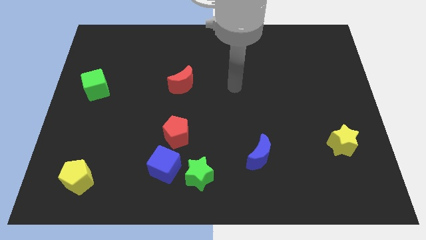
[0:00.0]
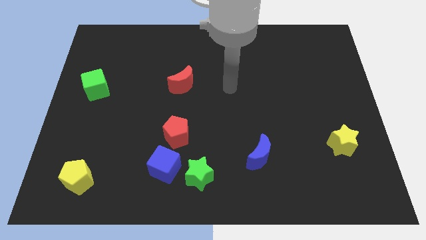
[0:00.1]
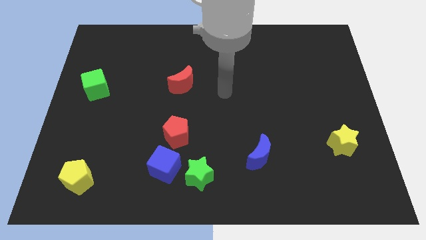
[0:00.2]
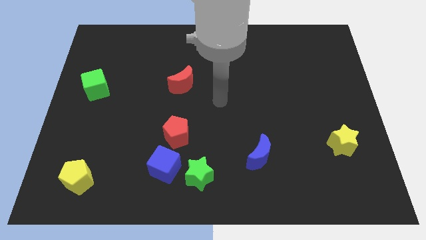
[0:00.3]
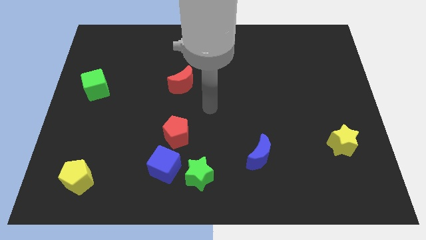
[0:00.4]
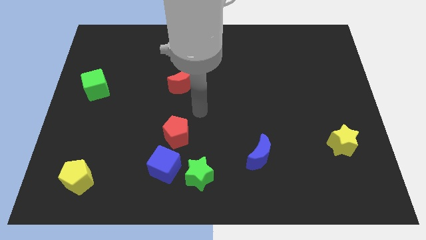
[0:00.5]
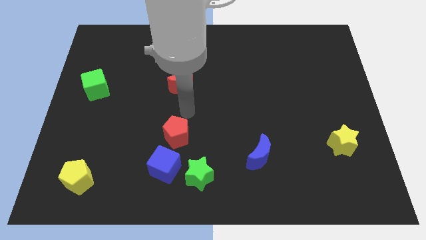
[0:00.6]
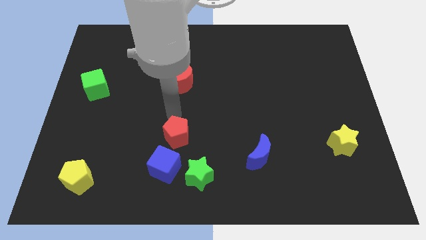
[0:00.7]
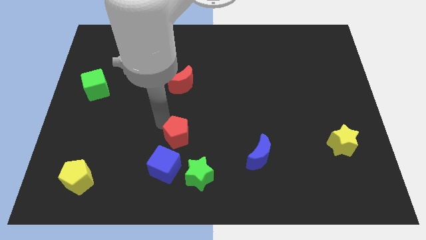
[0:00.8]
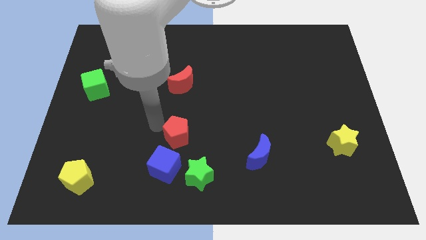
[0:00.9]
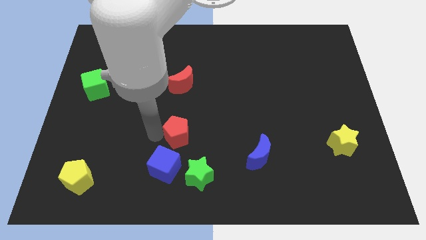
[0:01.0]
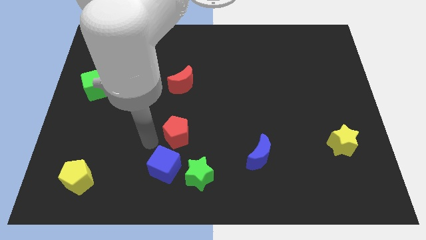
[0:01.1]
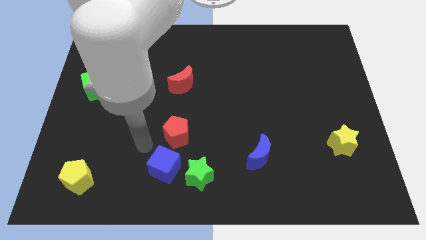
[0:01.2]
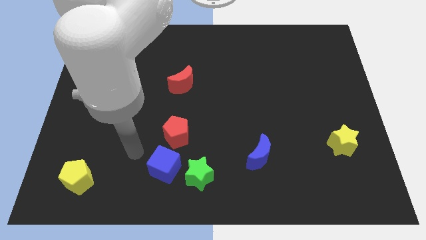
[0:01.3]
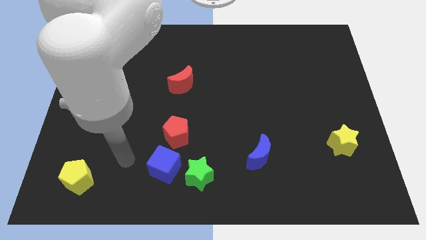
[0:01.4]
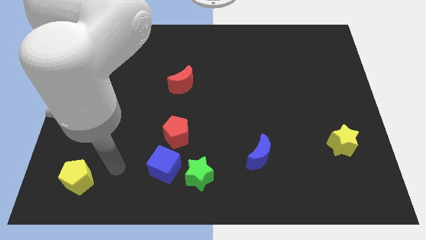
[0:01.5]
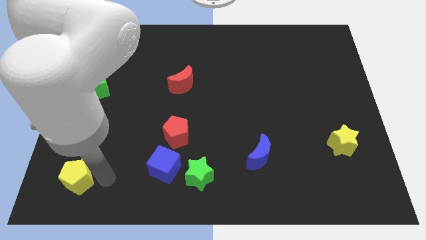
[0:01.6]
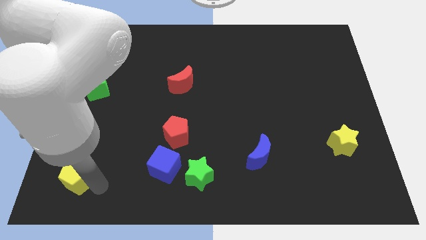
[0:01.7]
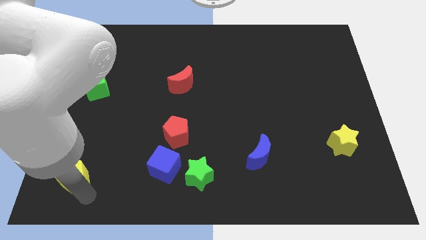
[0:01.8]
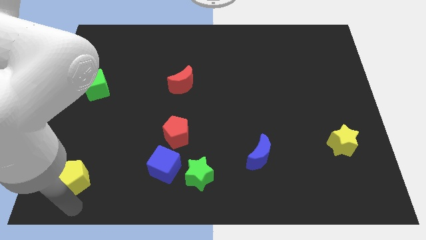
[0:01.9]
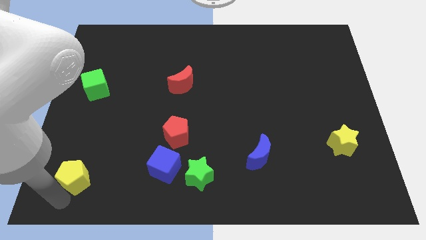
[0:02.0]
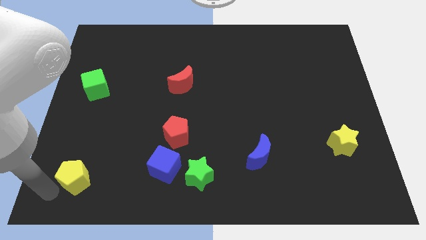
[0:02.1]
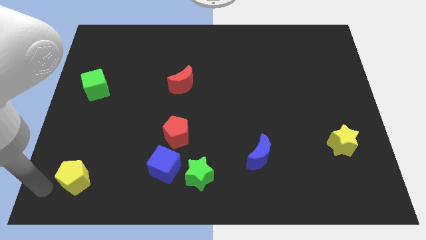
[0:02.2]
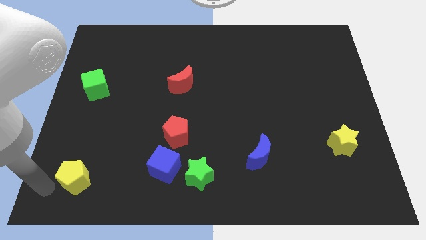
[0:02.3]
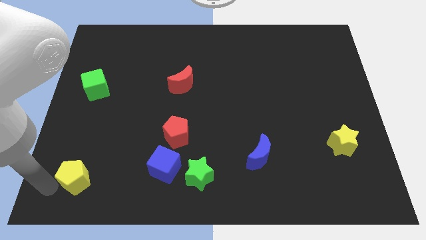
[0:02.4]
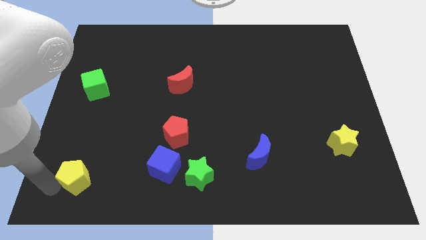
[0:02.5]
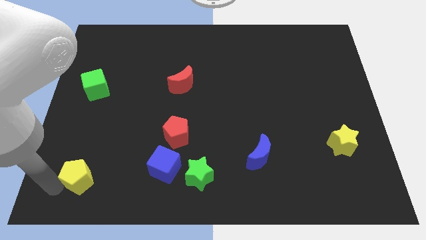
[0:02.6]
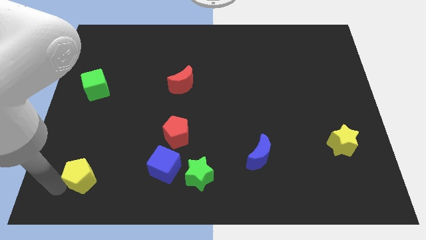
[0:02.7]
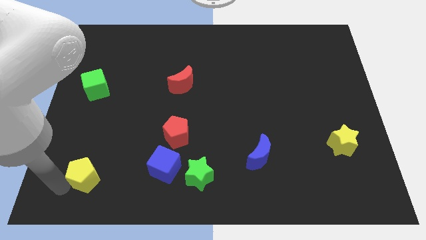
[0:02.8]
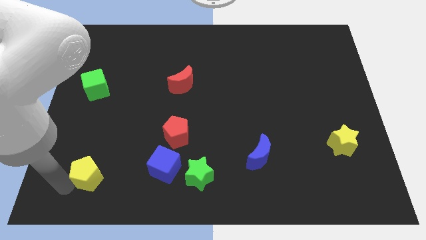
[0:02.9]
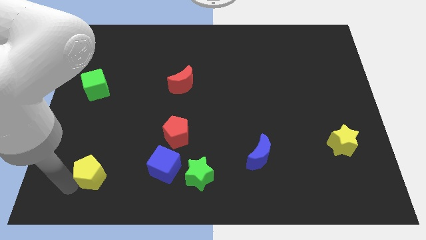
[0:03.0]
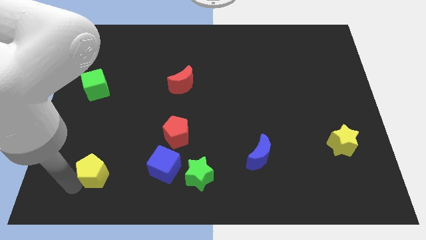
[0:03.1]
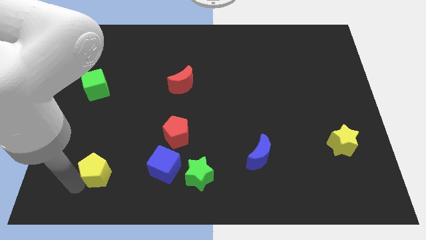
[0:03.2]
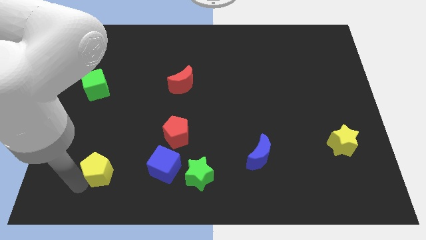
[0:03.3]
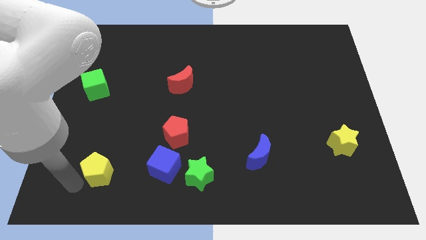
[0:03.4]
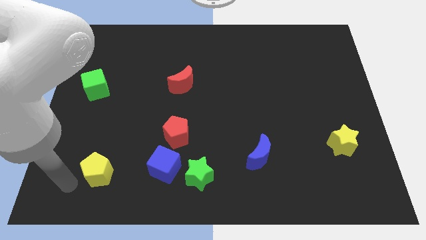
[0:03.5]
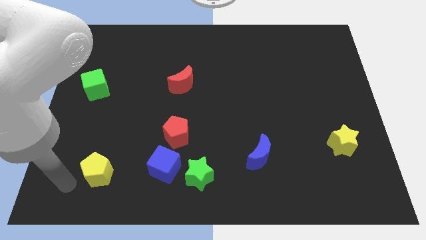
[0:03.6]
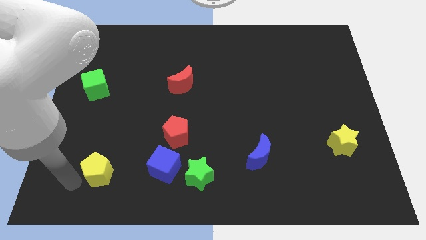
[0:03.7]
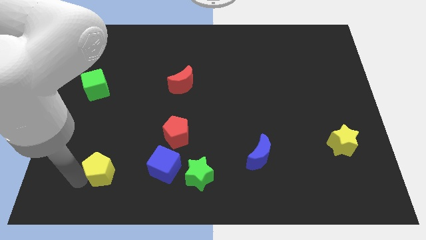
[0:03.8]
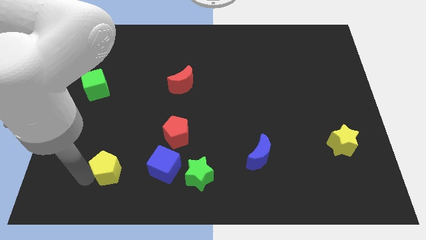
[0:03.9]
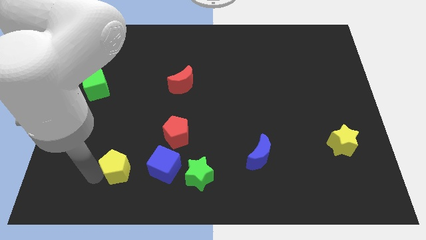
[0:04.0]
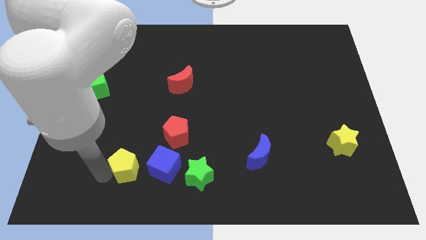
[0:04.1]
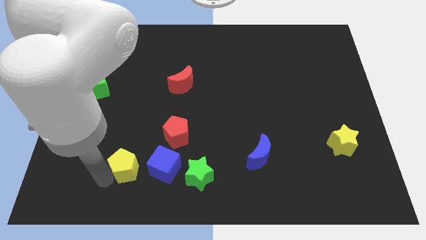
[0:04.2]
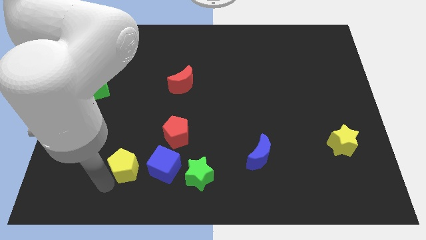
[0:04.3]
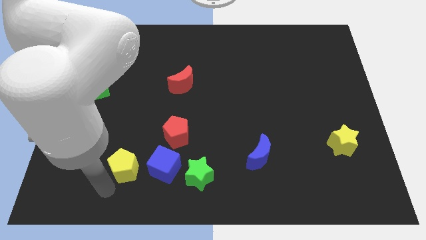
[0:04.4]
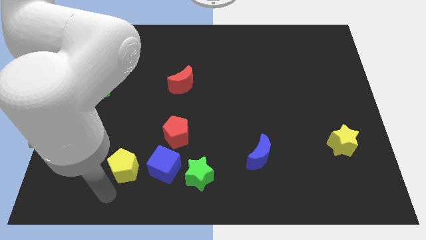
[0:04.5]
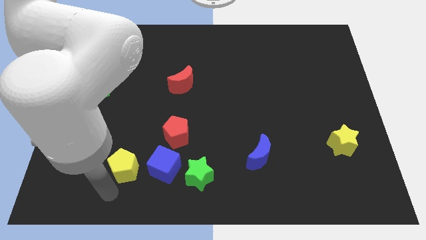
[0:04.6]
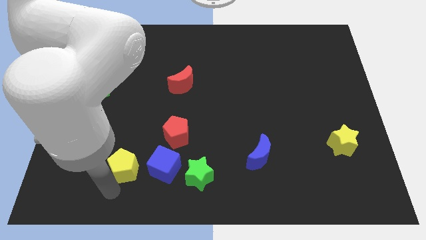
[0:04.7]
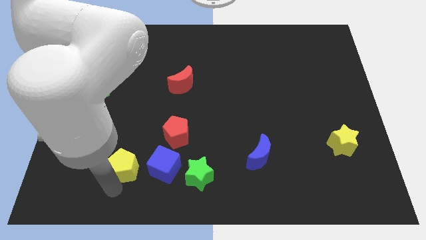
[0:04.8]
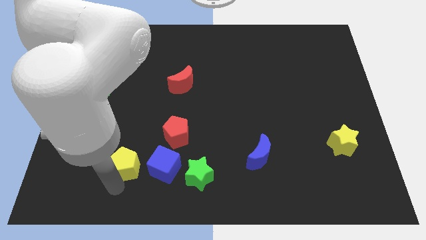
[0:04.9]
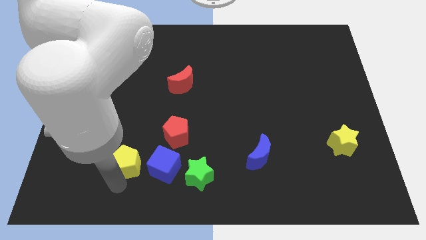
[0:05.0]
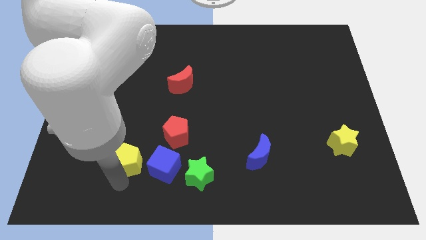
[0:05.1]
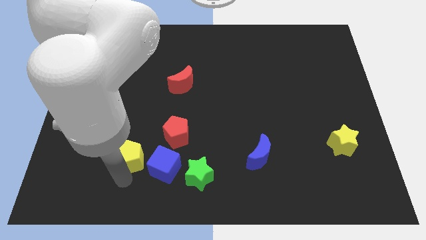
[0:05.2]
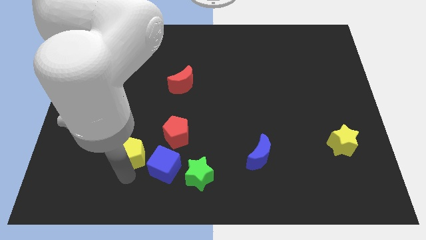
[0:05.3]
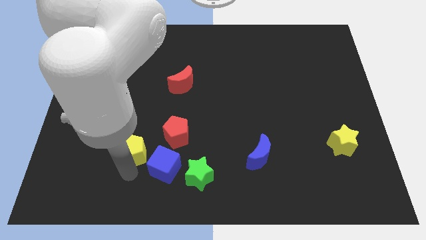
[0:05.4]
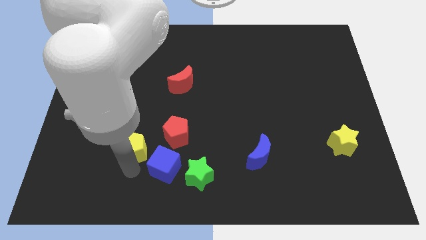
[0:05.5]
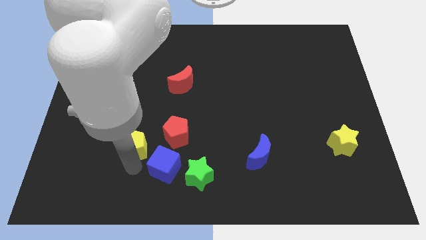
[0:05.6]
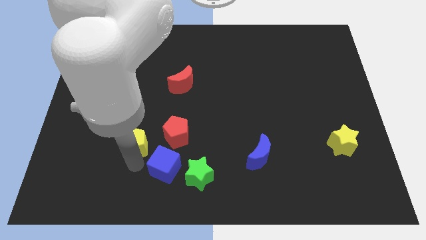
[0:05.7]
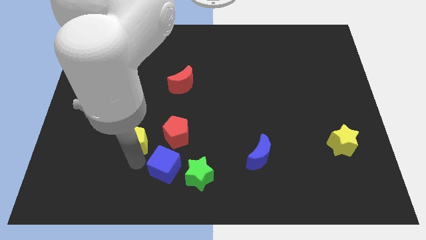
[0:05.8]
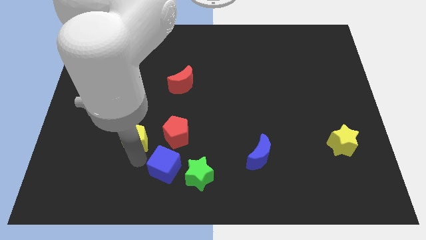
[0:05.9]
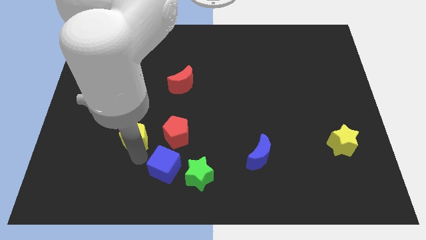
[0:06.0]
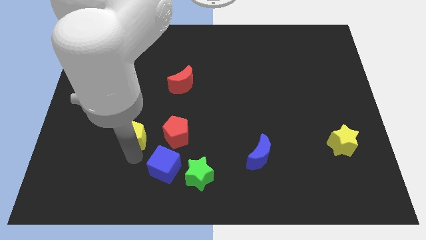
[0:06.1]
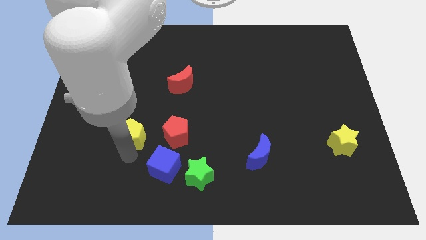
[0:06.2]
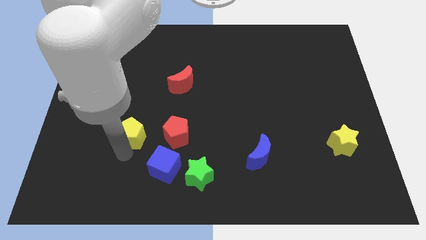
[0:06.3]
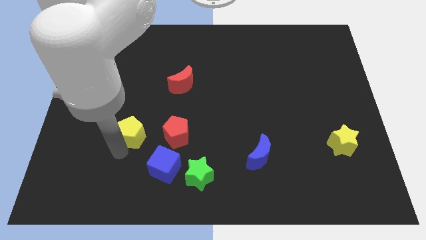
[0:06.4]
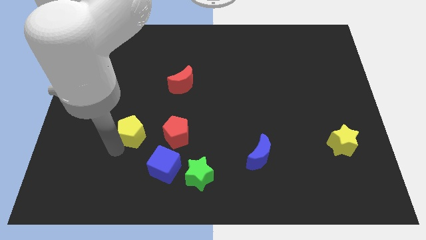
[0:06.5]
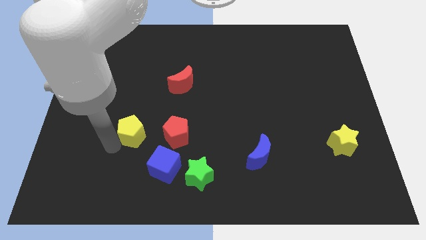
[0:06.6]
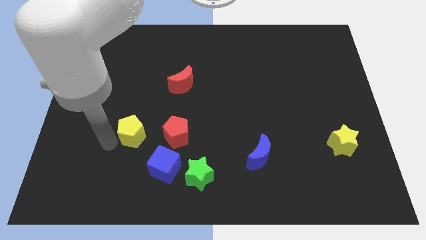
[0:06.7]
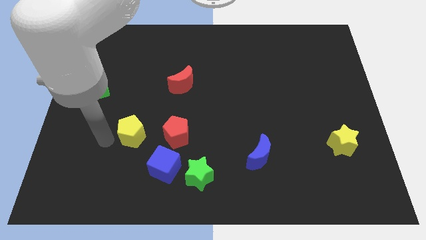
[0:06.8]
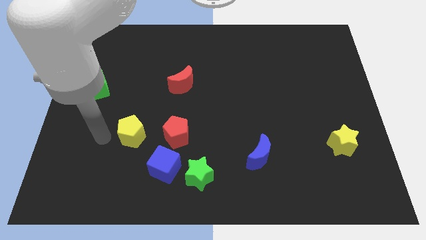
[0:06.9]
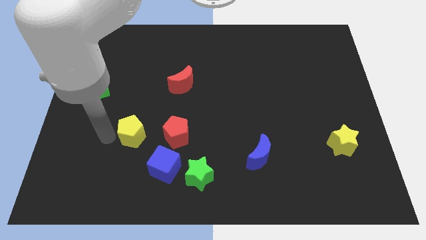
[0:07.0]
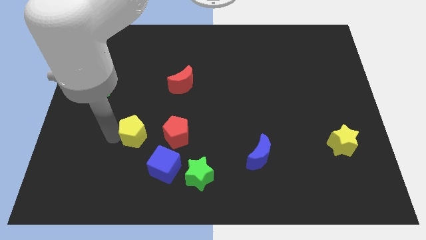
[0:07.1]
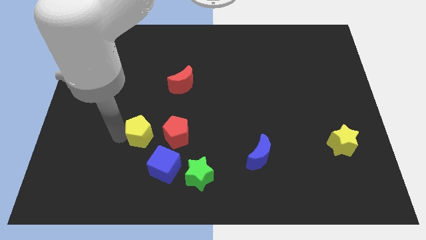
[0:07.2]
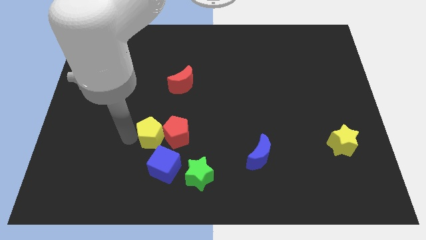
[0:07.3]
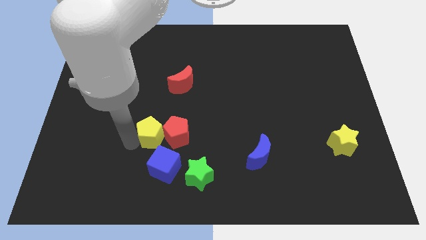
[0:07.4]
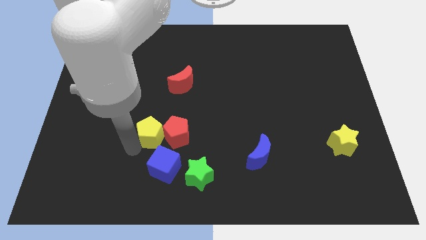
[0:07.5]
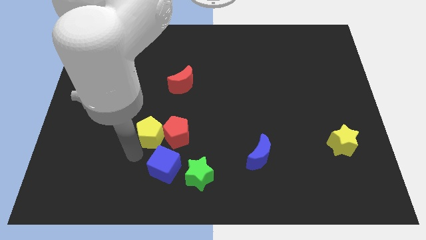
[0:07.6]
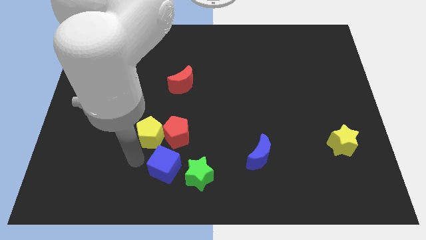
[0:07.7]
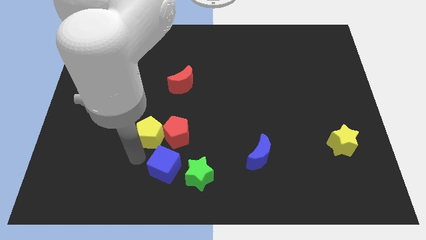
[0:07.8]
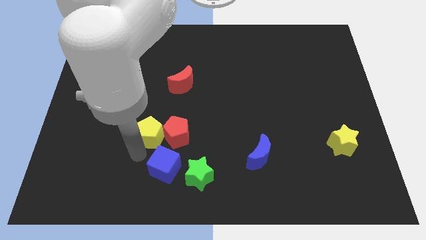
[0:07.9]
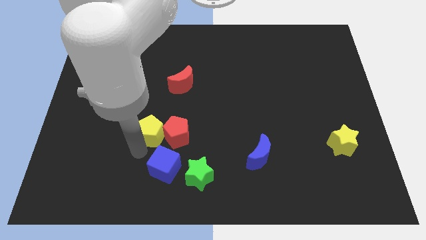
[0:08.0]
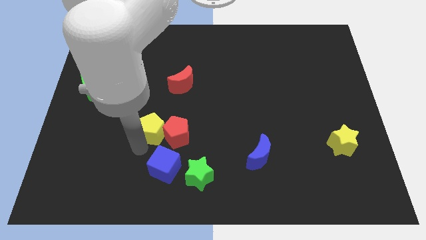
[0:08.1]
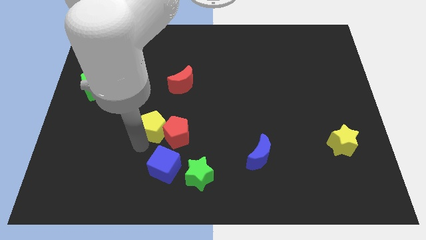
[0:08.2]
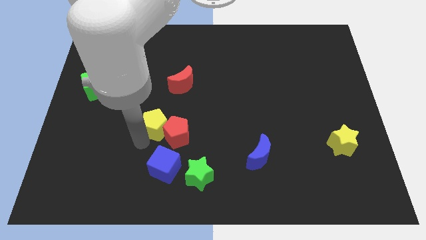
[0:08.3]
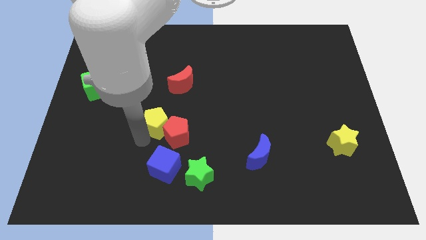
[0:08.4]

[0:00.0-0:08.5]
slide the yellow pentagon diagonally up and to the right
